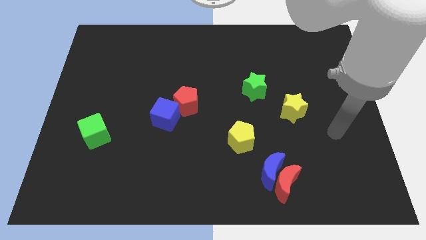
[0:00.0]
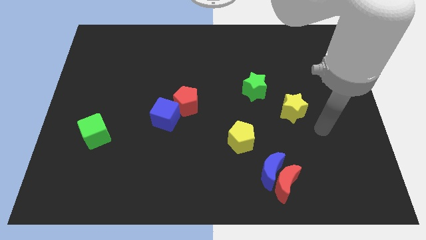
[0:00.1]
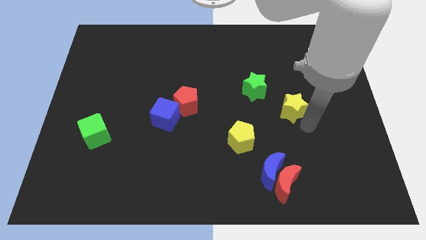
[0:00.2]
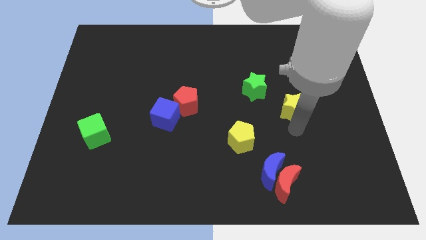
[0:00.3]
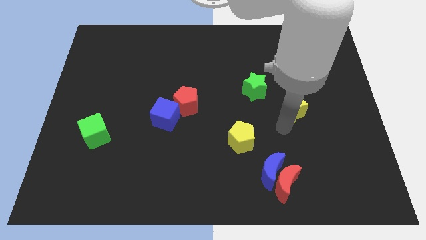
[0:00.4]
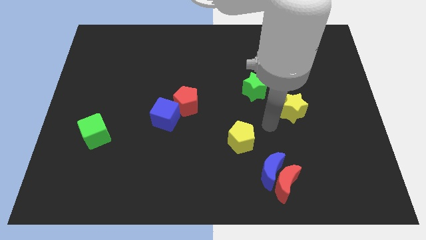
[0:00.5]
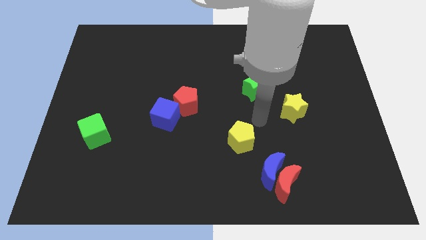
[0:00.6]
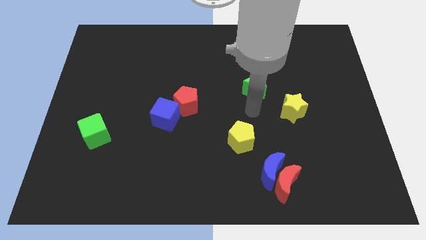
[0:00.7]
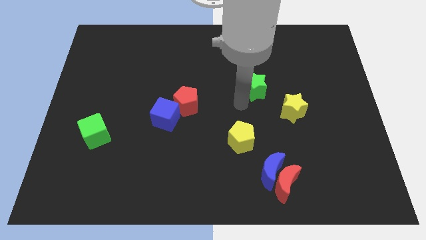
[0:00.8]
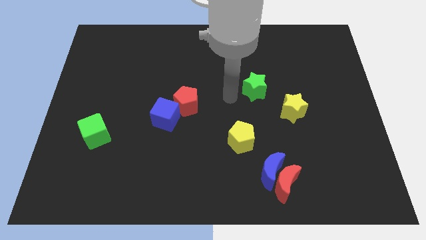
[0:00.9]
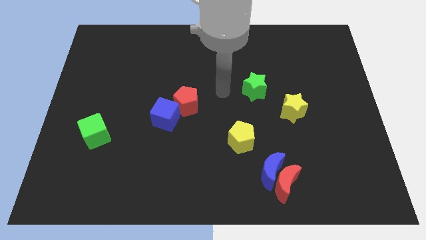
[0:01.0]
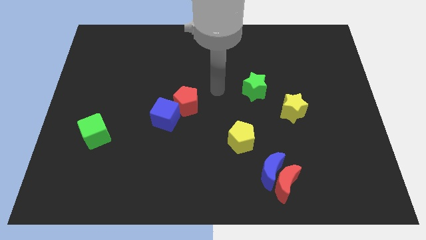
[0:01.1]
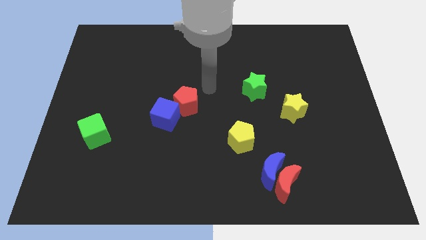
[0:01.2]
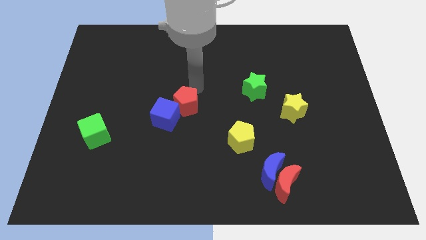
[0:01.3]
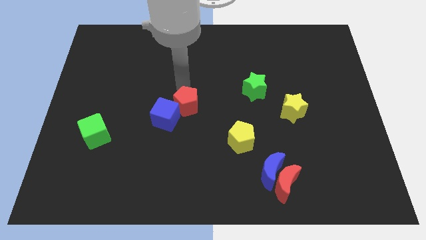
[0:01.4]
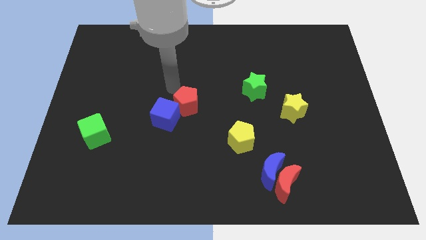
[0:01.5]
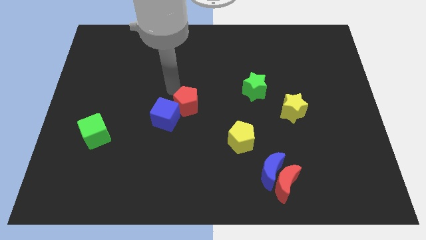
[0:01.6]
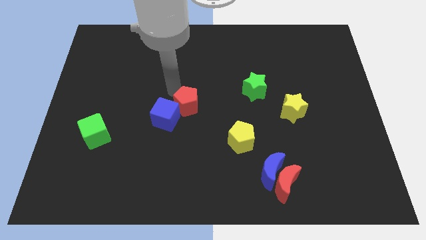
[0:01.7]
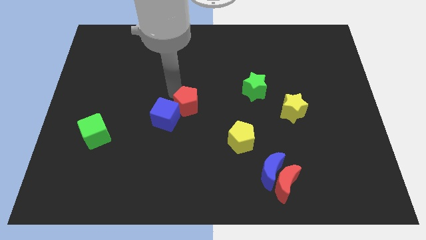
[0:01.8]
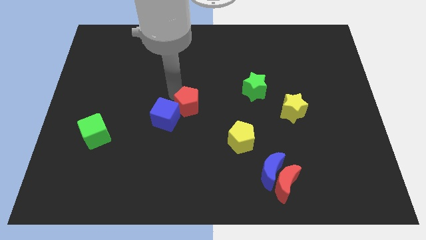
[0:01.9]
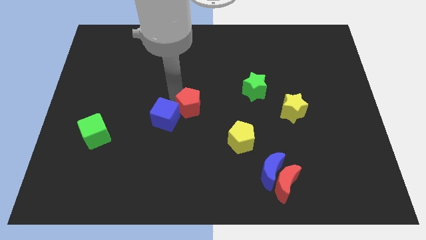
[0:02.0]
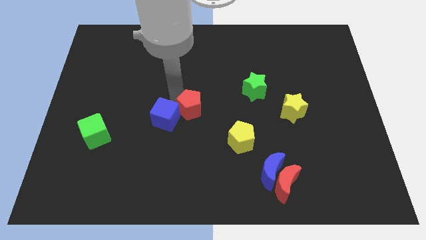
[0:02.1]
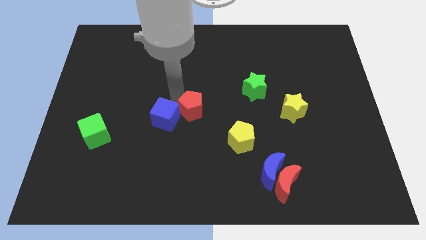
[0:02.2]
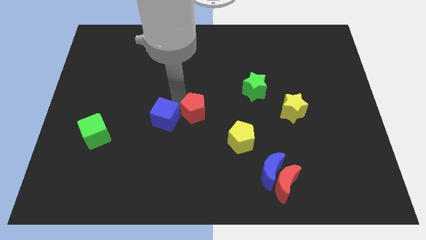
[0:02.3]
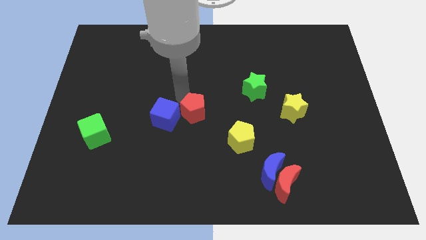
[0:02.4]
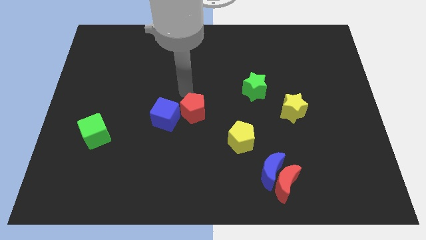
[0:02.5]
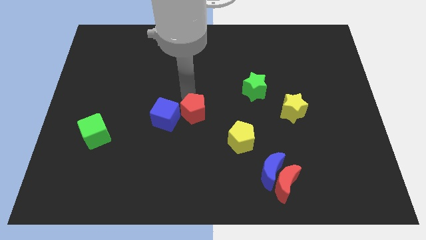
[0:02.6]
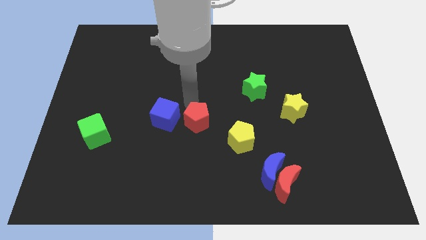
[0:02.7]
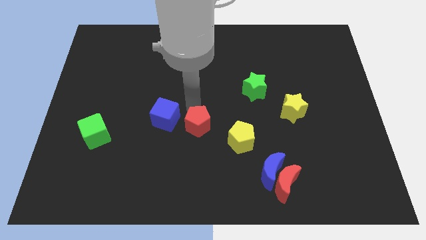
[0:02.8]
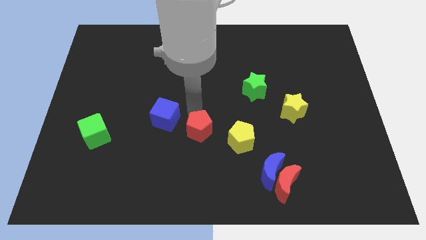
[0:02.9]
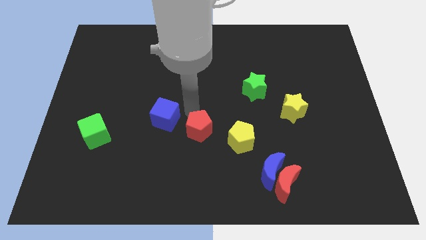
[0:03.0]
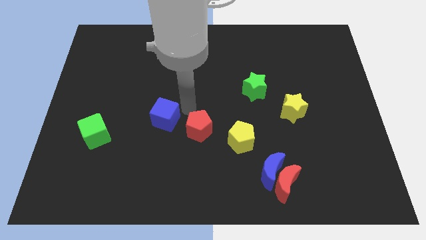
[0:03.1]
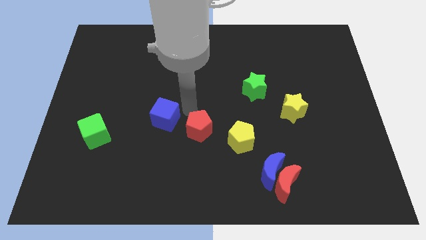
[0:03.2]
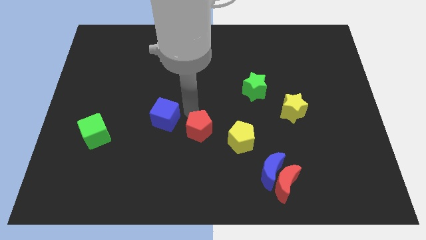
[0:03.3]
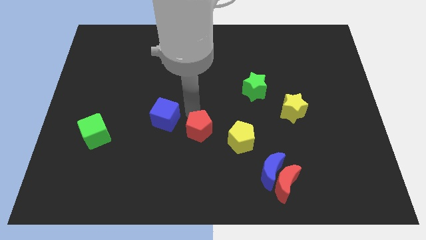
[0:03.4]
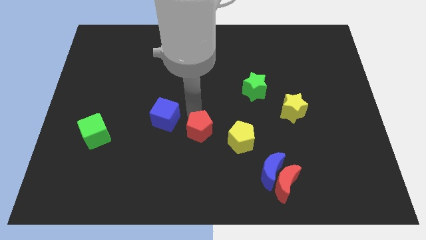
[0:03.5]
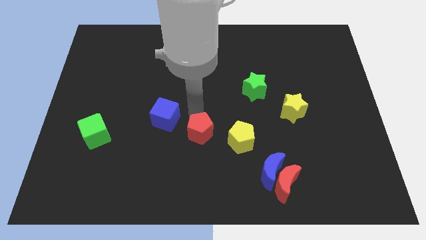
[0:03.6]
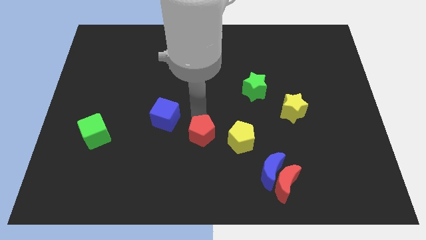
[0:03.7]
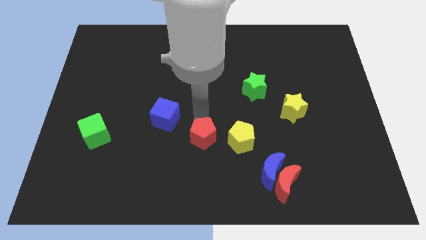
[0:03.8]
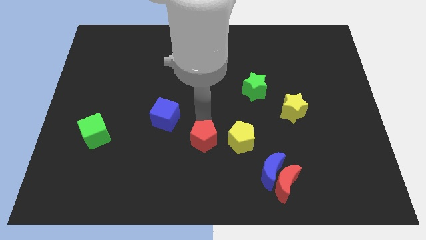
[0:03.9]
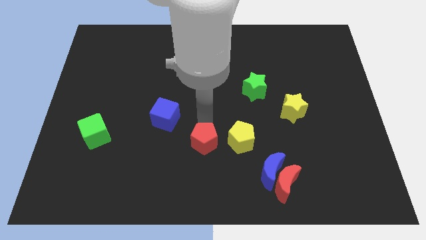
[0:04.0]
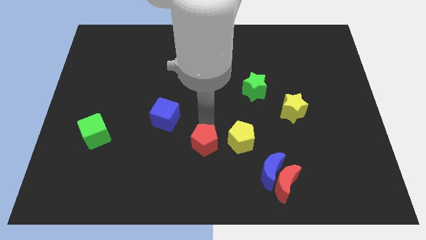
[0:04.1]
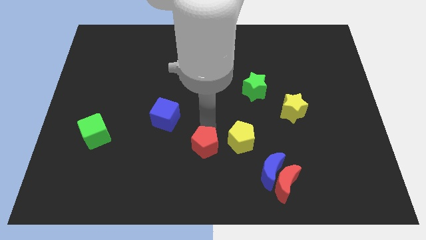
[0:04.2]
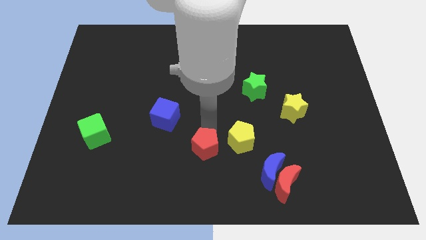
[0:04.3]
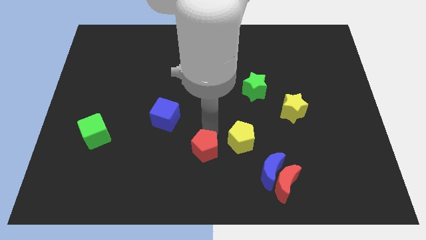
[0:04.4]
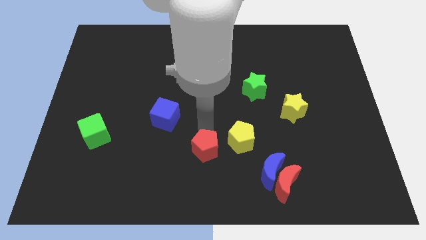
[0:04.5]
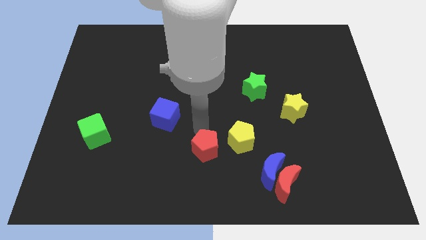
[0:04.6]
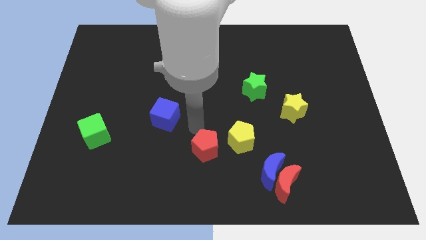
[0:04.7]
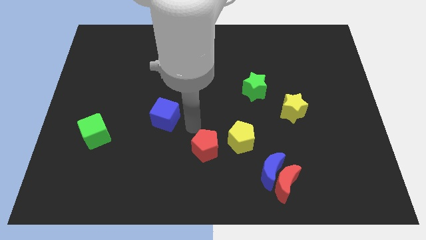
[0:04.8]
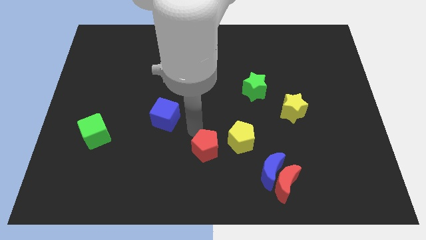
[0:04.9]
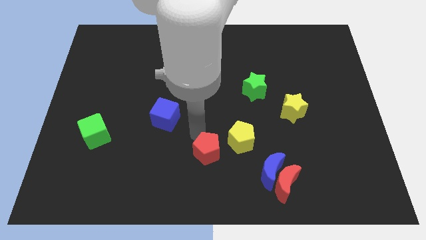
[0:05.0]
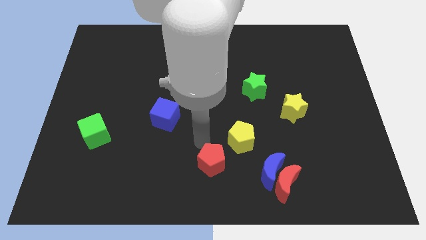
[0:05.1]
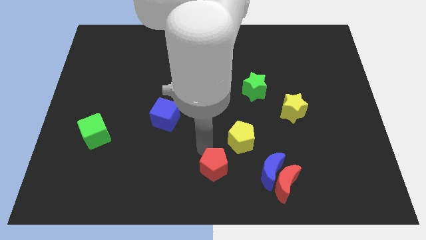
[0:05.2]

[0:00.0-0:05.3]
slide the red pentagon just left of the red moon

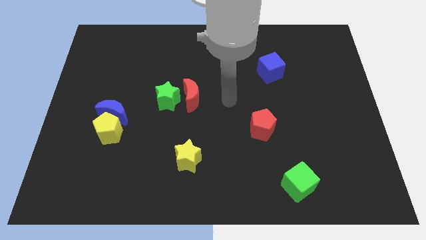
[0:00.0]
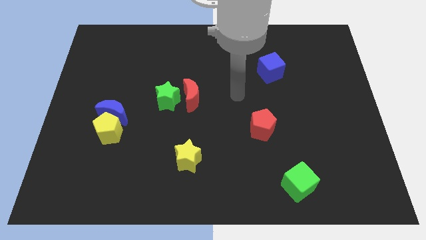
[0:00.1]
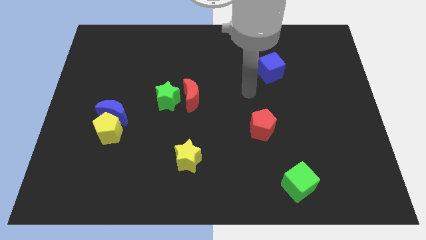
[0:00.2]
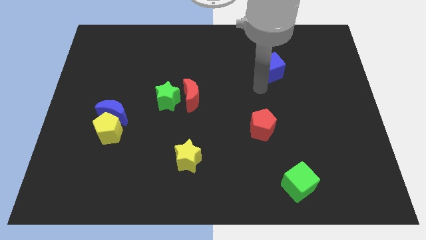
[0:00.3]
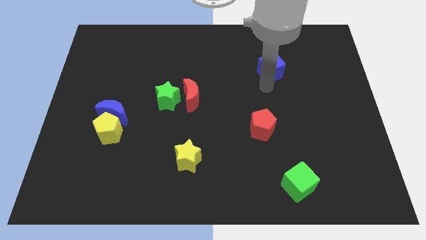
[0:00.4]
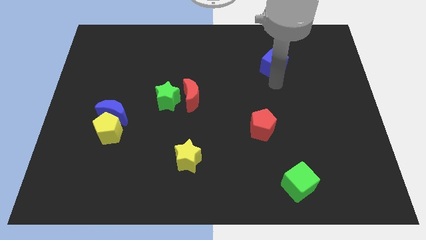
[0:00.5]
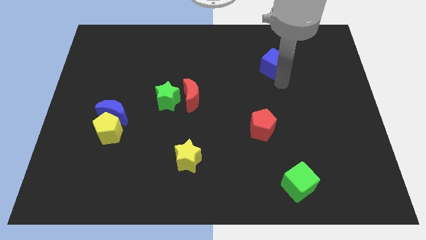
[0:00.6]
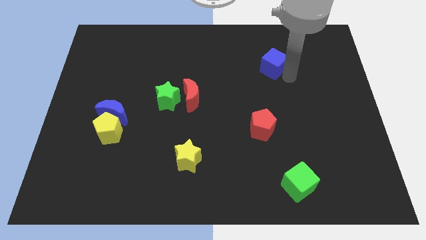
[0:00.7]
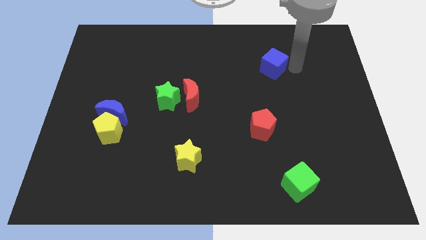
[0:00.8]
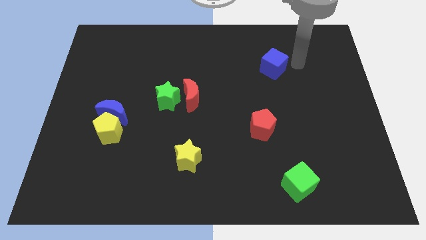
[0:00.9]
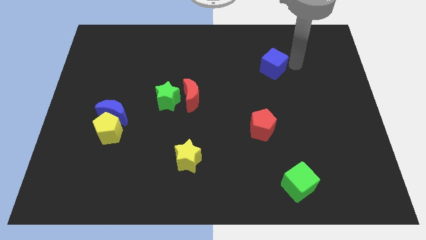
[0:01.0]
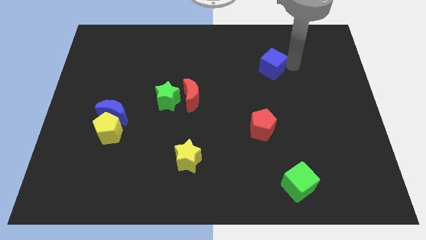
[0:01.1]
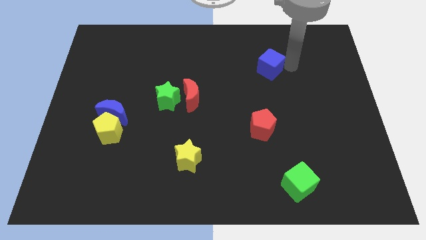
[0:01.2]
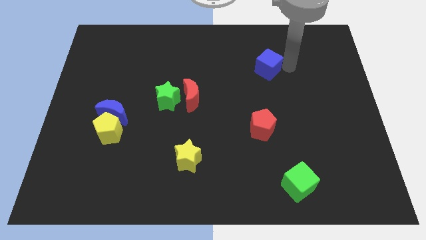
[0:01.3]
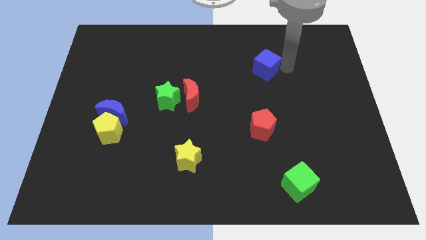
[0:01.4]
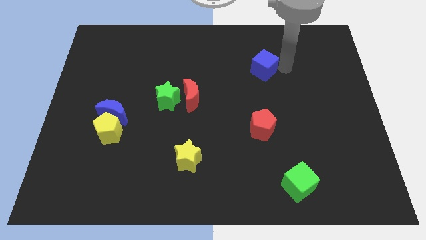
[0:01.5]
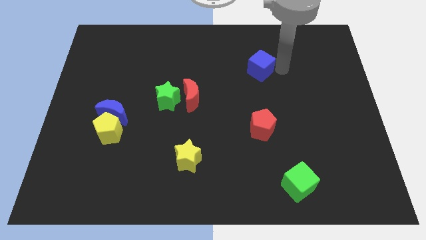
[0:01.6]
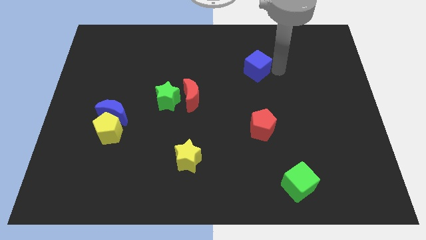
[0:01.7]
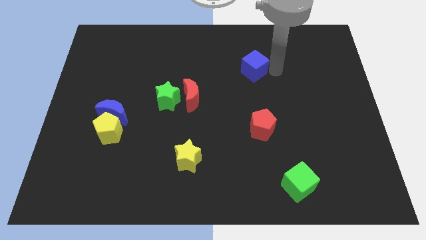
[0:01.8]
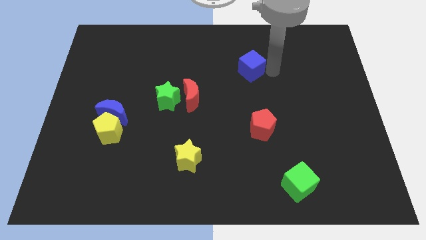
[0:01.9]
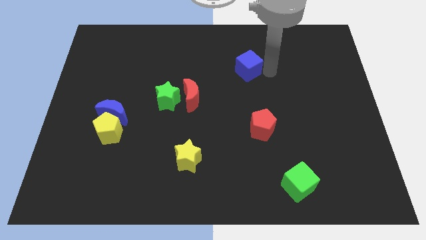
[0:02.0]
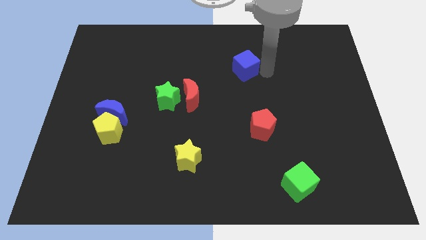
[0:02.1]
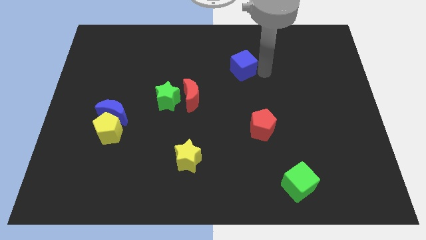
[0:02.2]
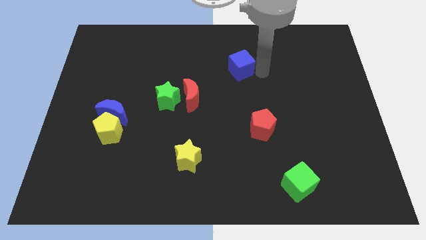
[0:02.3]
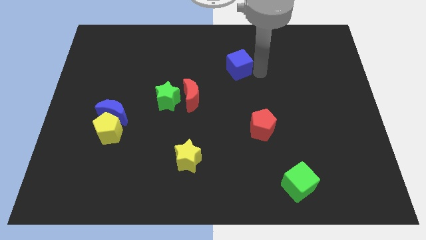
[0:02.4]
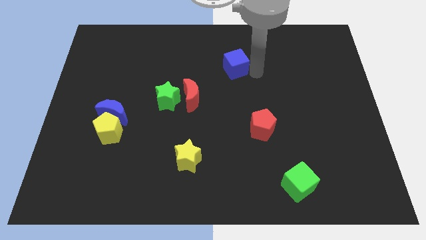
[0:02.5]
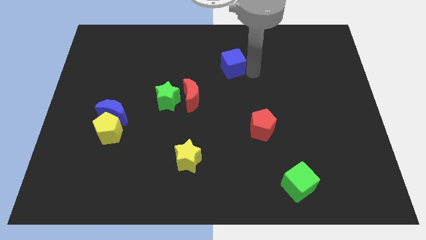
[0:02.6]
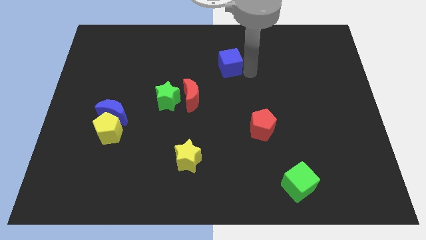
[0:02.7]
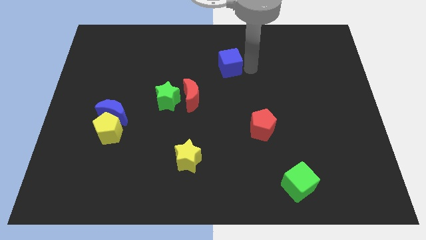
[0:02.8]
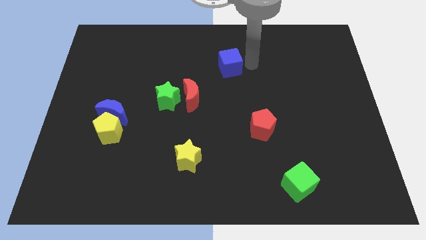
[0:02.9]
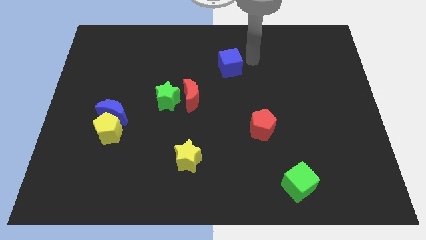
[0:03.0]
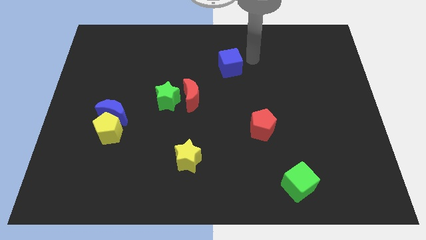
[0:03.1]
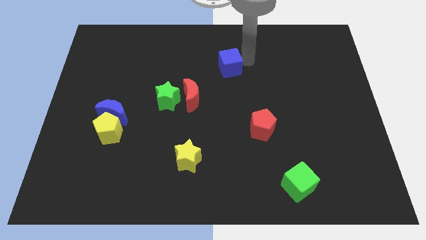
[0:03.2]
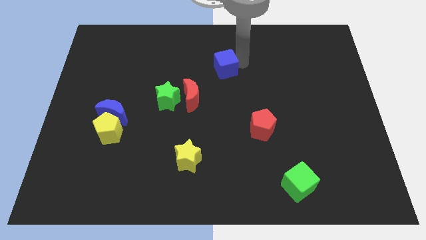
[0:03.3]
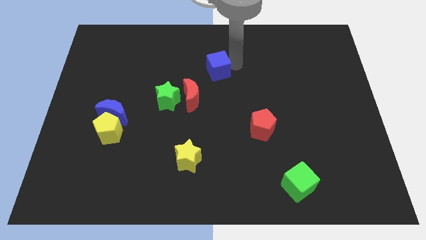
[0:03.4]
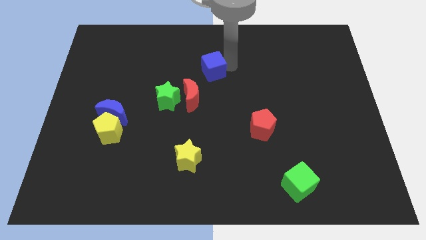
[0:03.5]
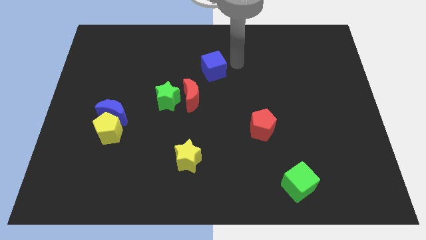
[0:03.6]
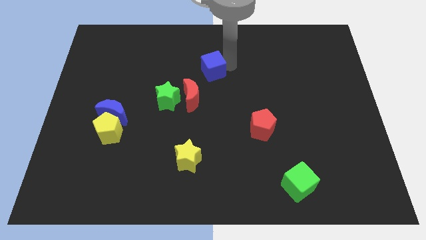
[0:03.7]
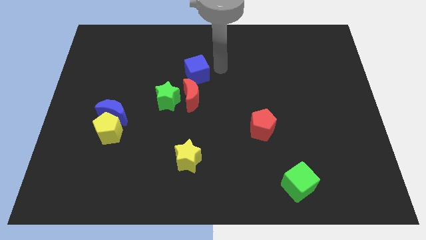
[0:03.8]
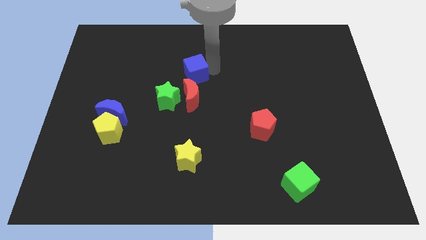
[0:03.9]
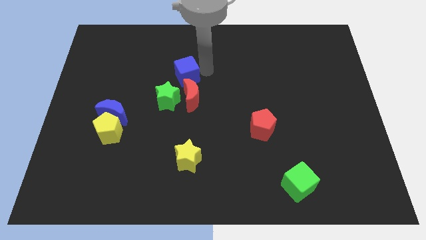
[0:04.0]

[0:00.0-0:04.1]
put the blue cube to the top left of the red moon
